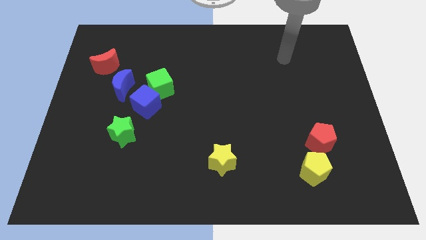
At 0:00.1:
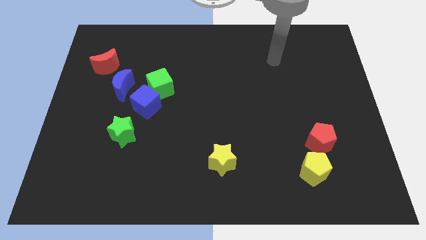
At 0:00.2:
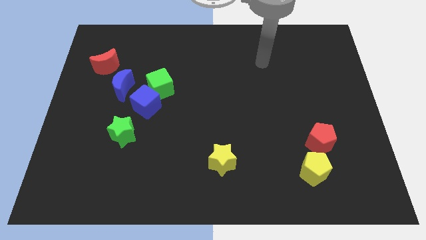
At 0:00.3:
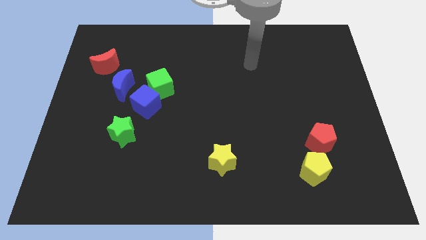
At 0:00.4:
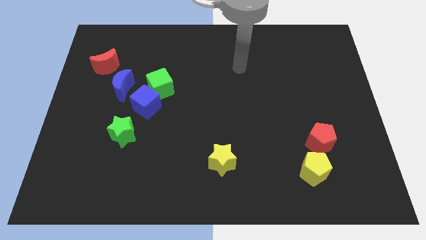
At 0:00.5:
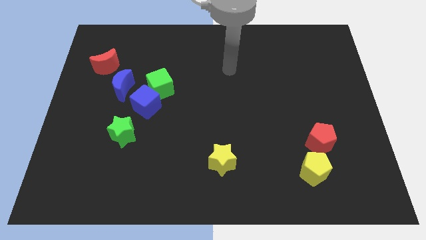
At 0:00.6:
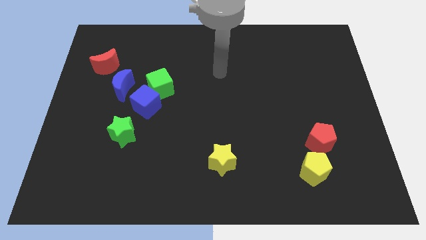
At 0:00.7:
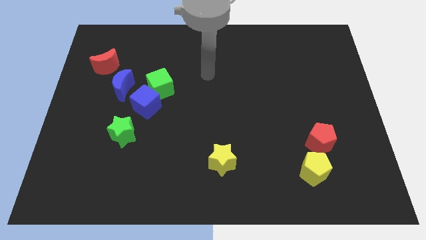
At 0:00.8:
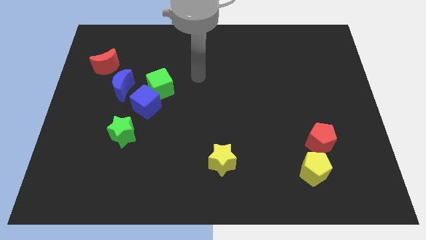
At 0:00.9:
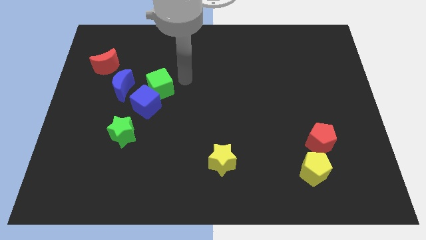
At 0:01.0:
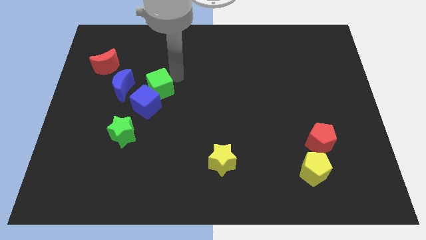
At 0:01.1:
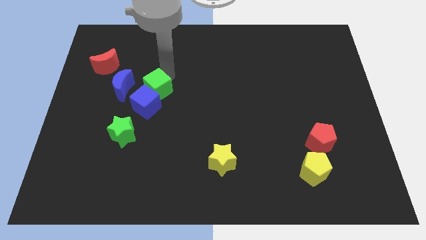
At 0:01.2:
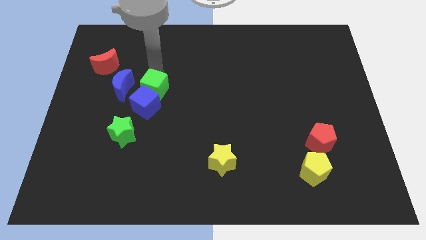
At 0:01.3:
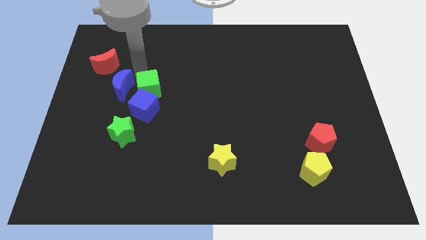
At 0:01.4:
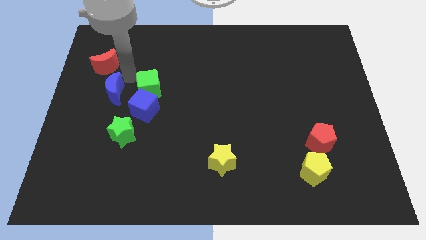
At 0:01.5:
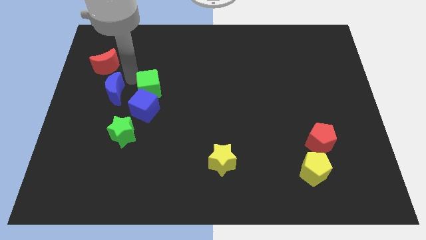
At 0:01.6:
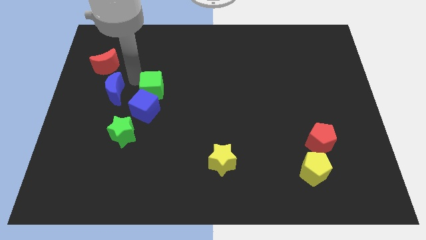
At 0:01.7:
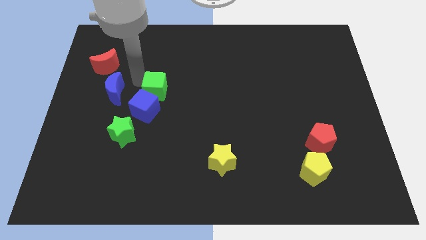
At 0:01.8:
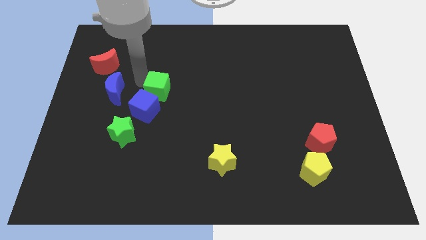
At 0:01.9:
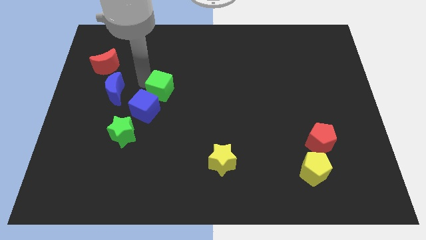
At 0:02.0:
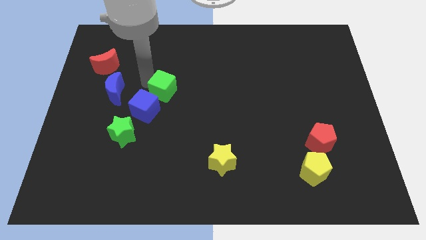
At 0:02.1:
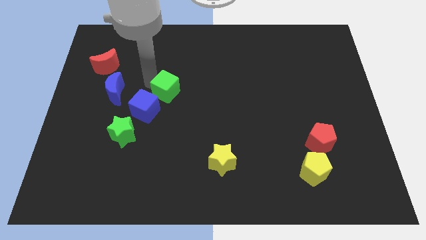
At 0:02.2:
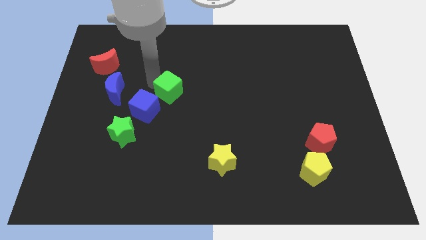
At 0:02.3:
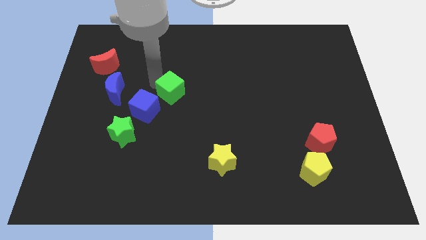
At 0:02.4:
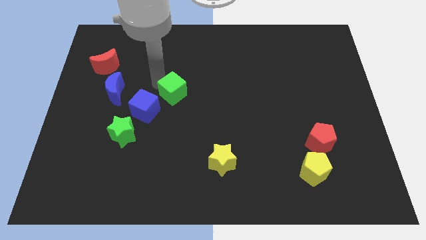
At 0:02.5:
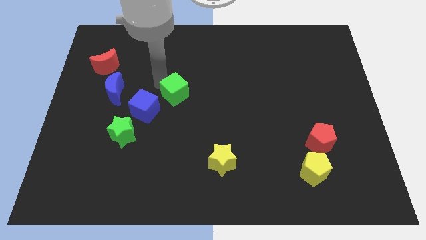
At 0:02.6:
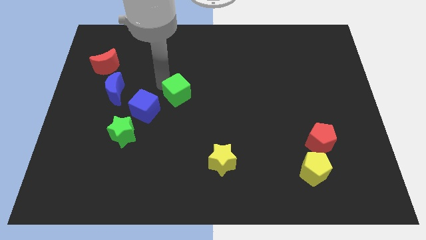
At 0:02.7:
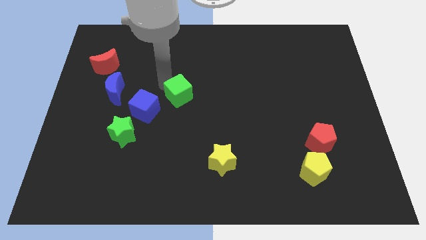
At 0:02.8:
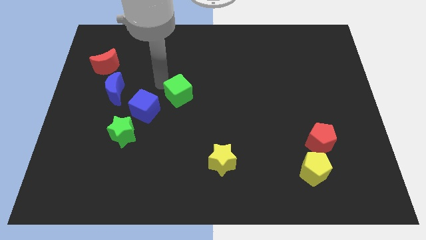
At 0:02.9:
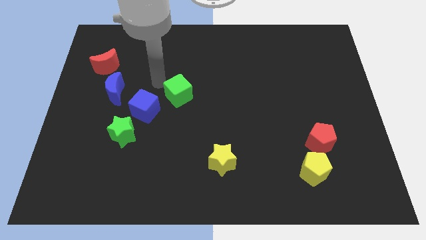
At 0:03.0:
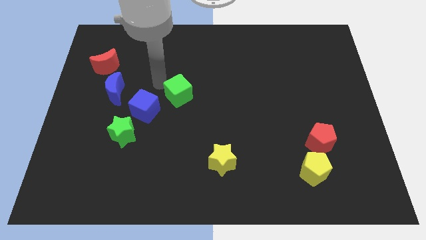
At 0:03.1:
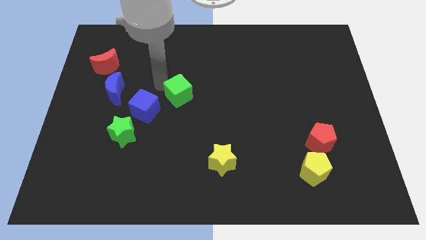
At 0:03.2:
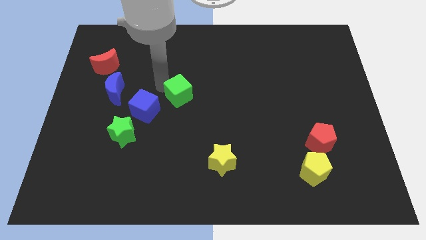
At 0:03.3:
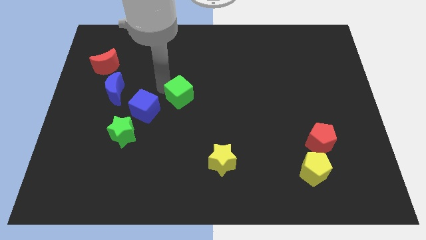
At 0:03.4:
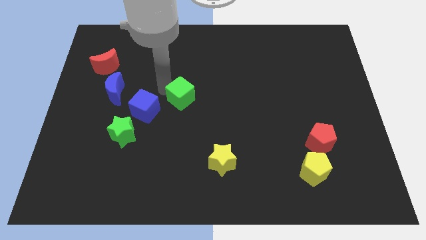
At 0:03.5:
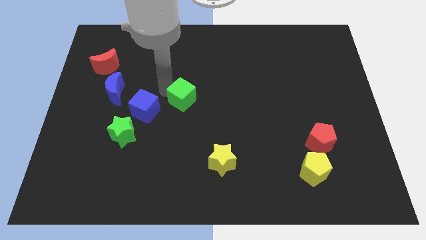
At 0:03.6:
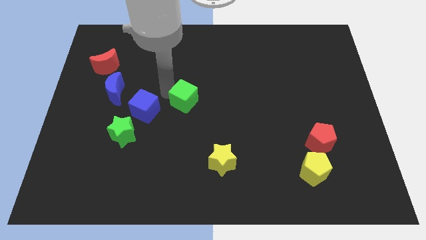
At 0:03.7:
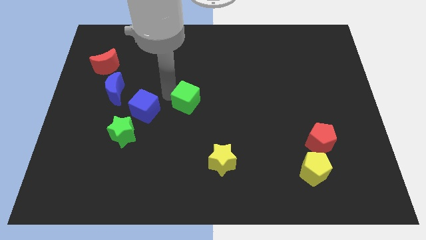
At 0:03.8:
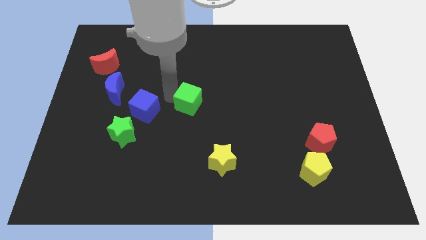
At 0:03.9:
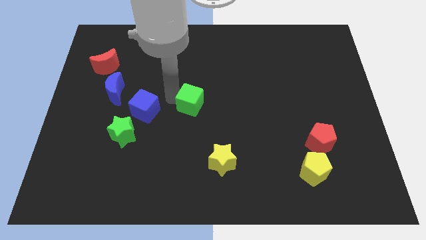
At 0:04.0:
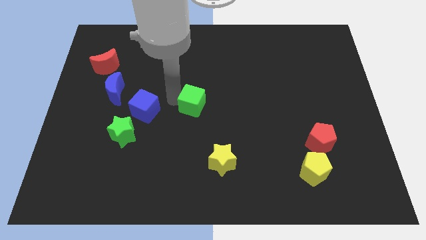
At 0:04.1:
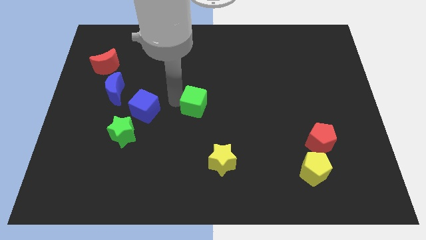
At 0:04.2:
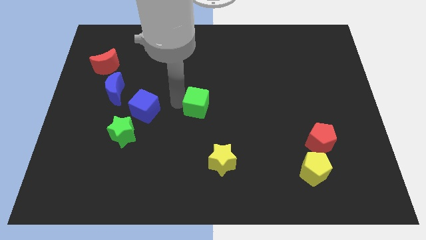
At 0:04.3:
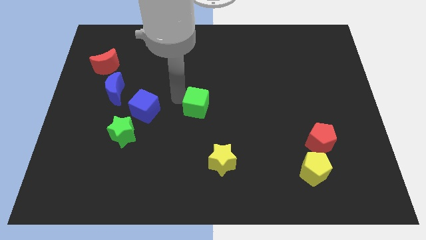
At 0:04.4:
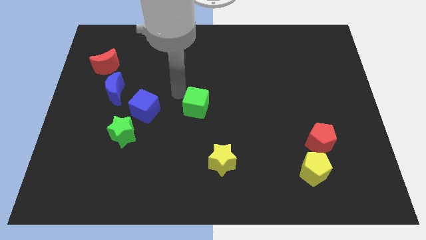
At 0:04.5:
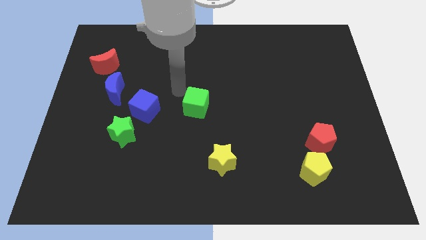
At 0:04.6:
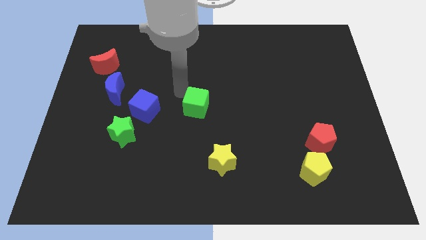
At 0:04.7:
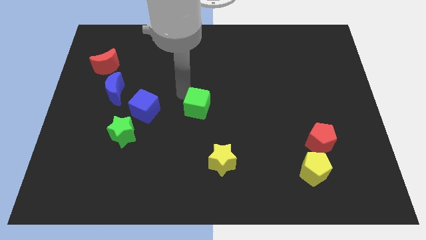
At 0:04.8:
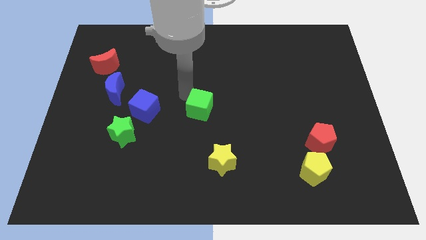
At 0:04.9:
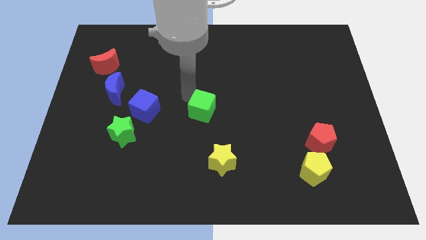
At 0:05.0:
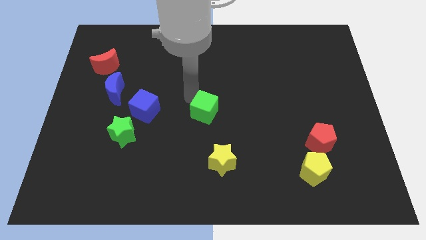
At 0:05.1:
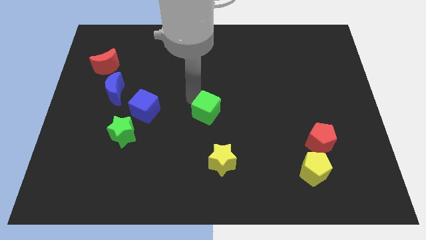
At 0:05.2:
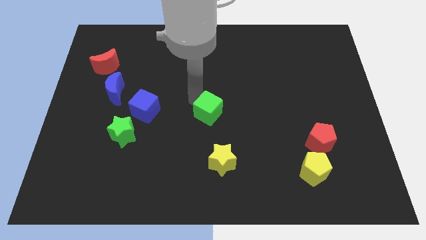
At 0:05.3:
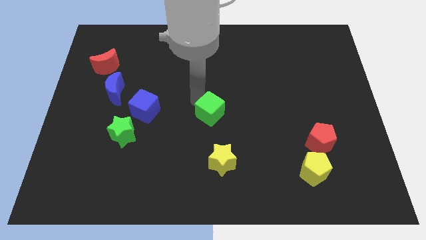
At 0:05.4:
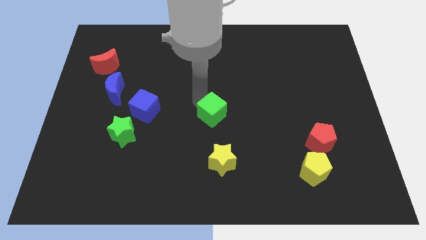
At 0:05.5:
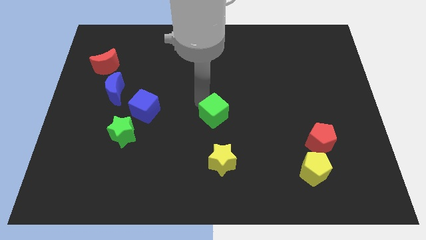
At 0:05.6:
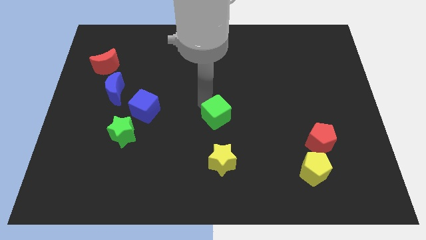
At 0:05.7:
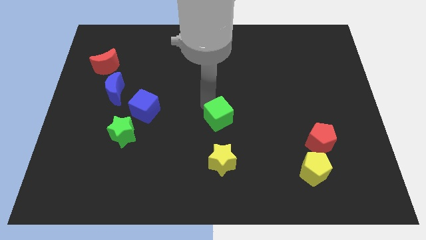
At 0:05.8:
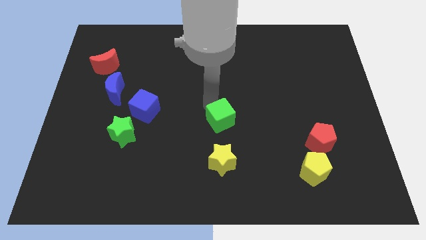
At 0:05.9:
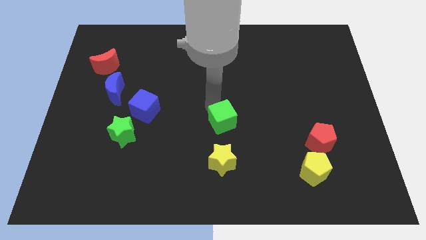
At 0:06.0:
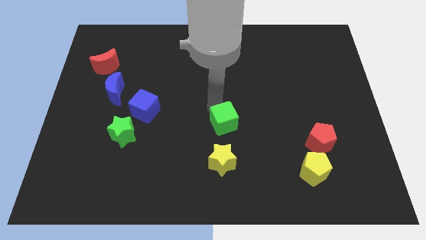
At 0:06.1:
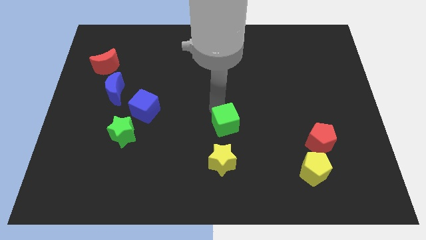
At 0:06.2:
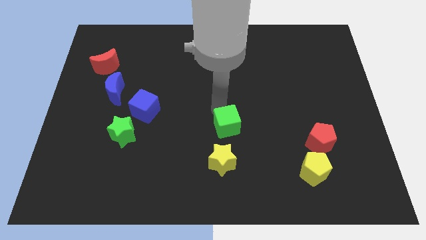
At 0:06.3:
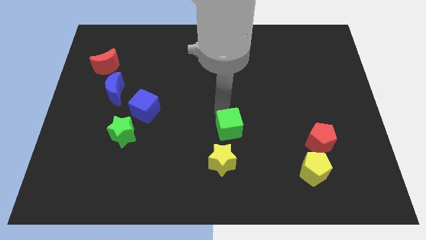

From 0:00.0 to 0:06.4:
push the green cube diagonally downwards and to the right

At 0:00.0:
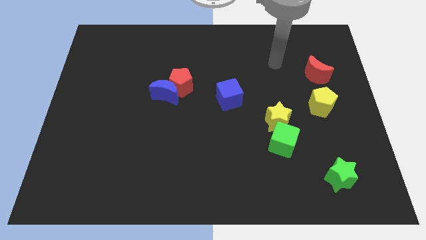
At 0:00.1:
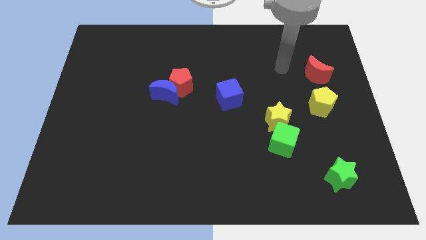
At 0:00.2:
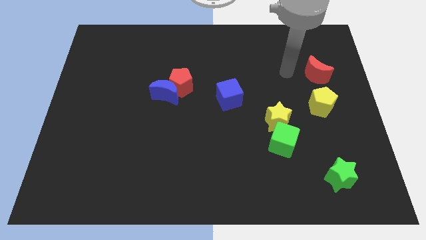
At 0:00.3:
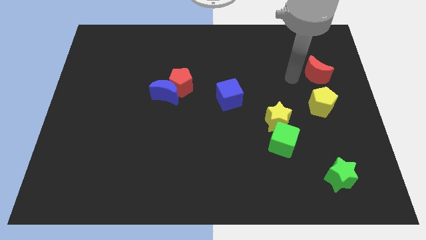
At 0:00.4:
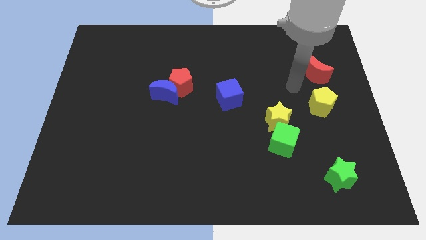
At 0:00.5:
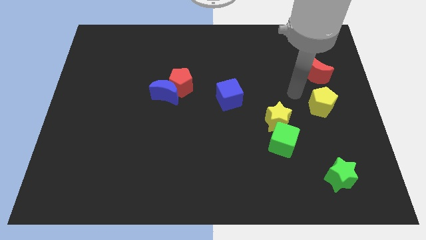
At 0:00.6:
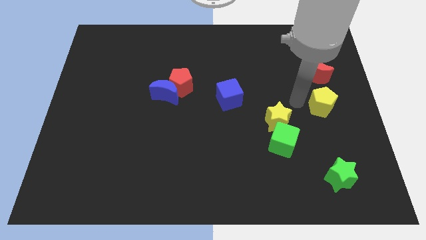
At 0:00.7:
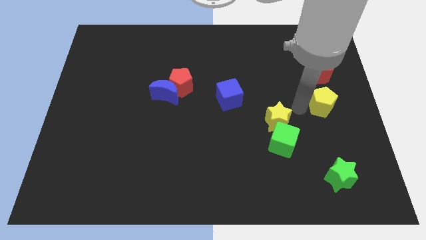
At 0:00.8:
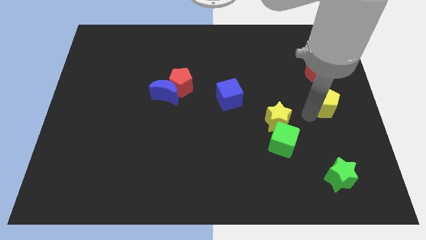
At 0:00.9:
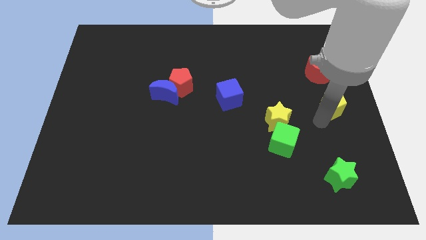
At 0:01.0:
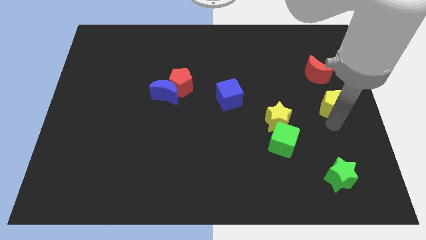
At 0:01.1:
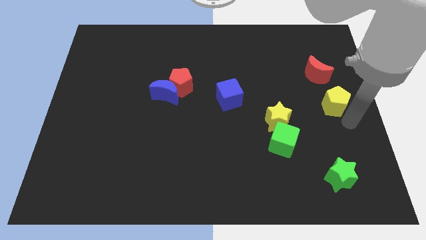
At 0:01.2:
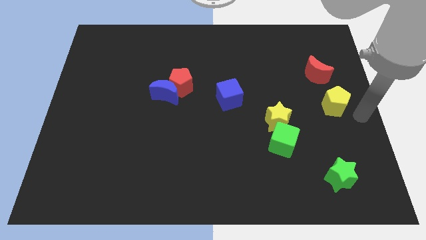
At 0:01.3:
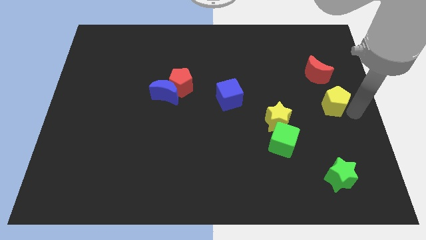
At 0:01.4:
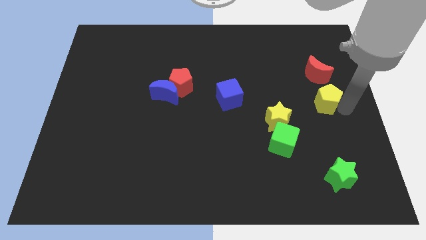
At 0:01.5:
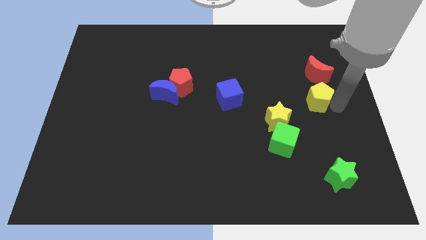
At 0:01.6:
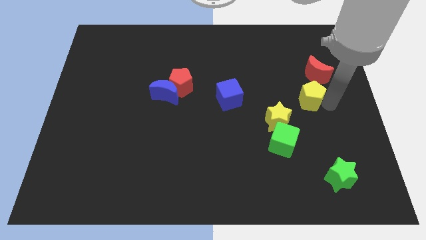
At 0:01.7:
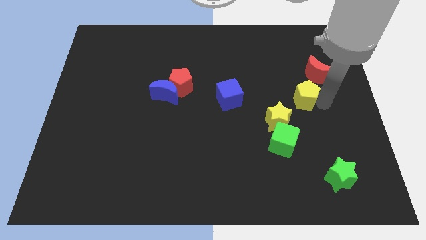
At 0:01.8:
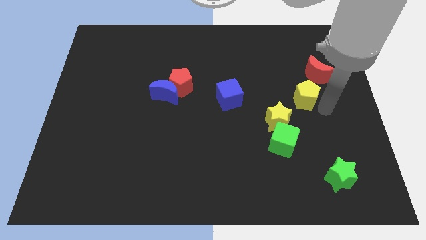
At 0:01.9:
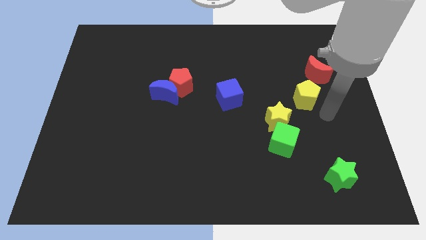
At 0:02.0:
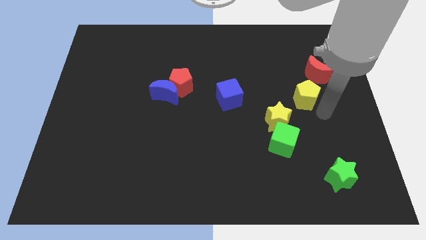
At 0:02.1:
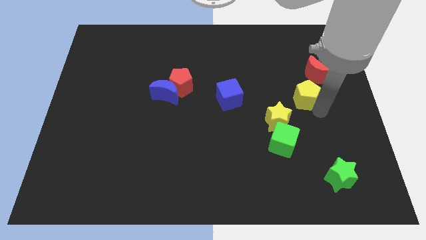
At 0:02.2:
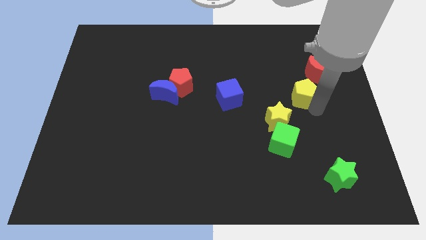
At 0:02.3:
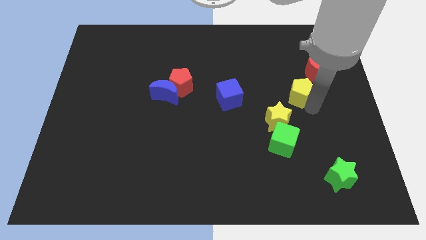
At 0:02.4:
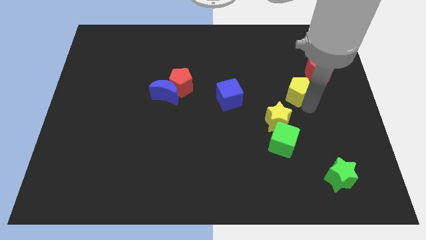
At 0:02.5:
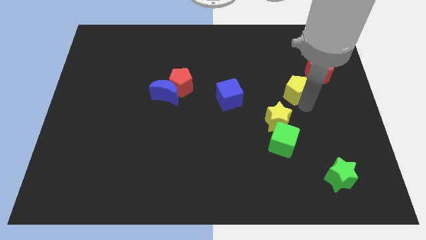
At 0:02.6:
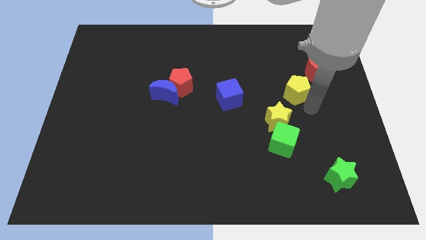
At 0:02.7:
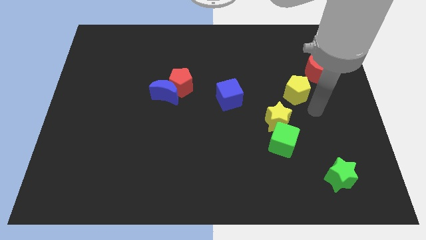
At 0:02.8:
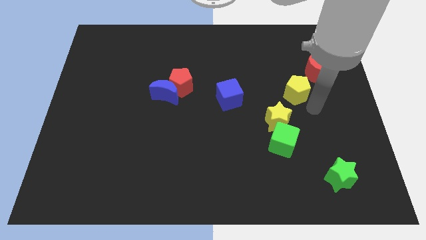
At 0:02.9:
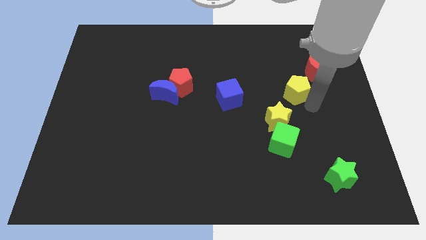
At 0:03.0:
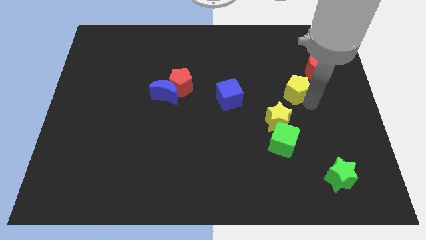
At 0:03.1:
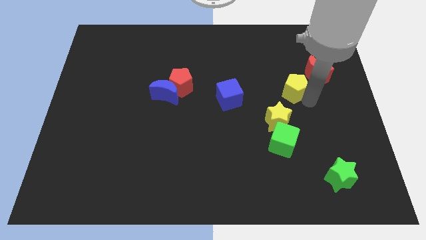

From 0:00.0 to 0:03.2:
move the yellow pentagon a little upwards and to the left
